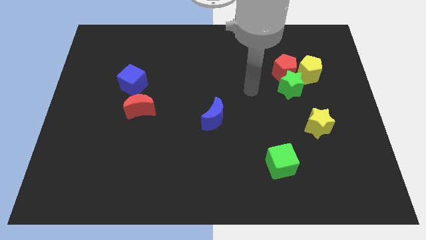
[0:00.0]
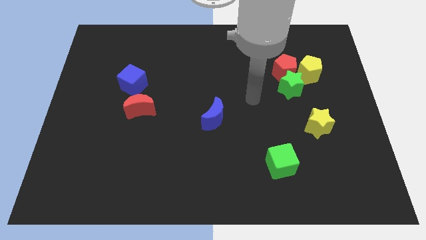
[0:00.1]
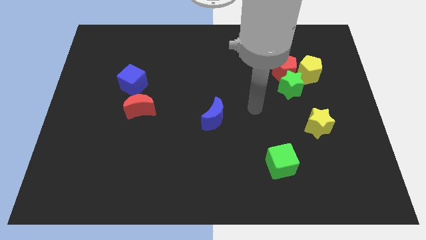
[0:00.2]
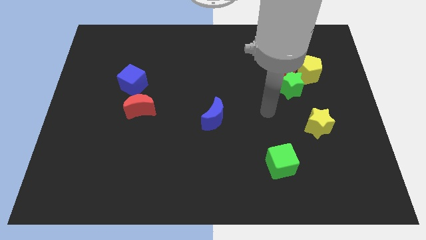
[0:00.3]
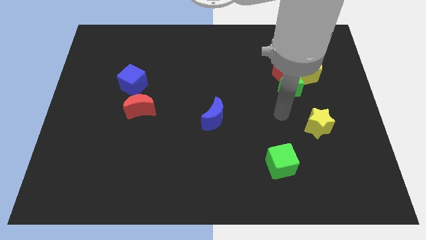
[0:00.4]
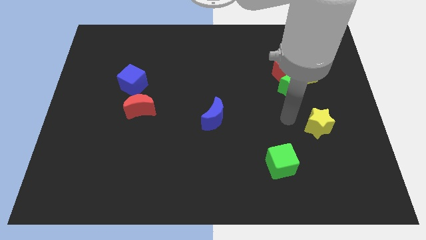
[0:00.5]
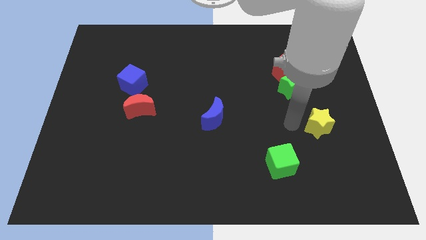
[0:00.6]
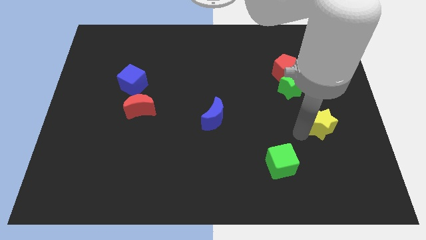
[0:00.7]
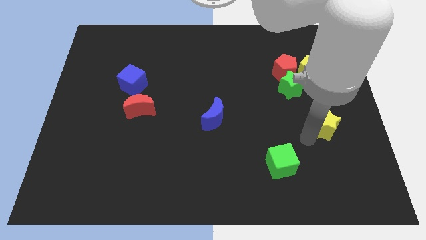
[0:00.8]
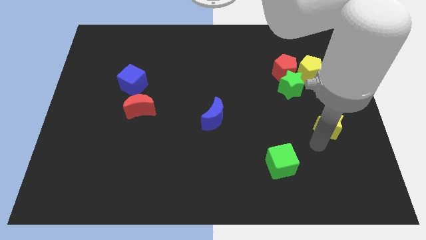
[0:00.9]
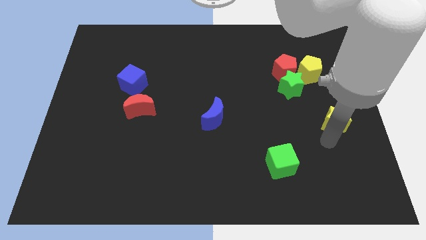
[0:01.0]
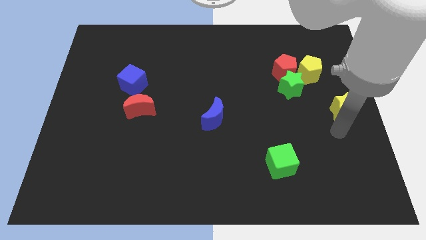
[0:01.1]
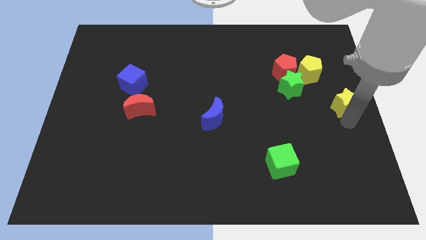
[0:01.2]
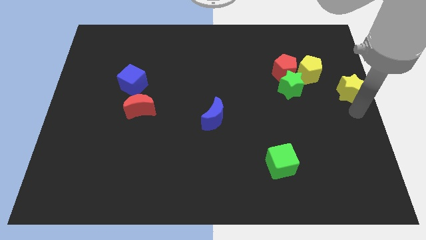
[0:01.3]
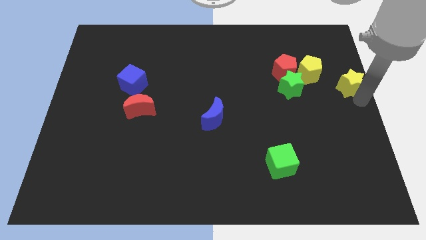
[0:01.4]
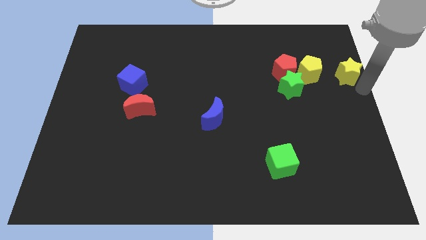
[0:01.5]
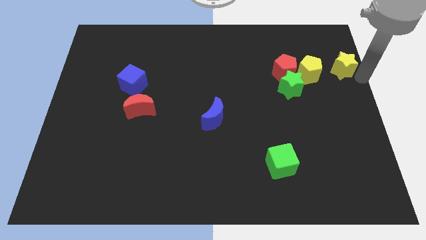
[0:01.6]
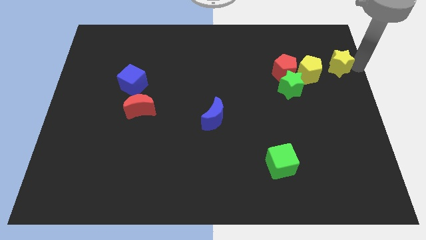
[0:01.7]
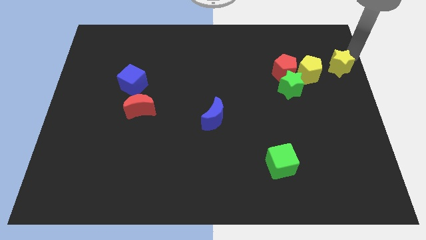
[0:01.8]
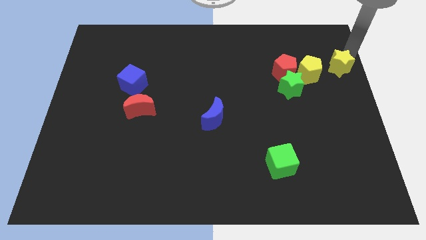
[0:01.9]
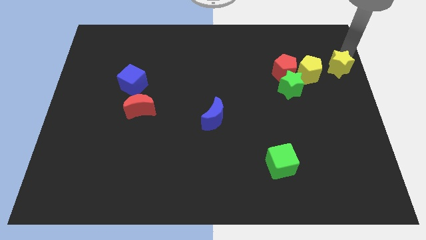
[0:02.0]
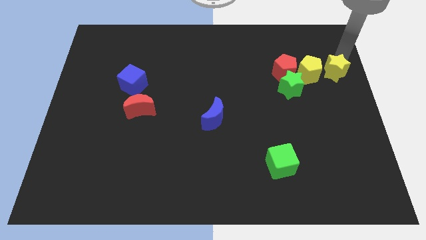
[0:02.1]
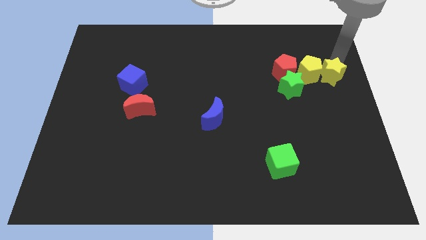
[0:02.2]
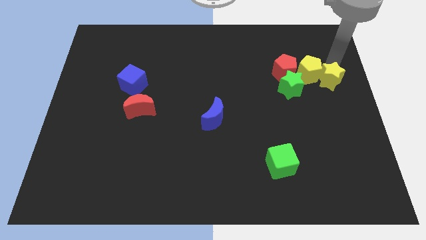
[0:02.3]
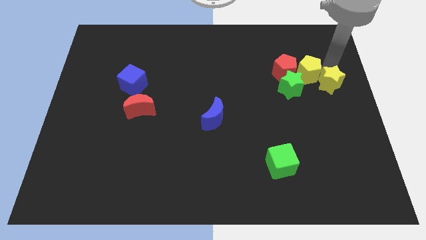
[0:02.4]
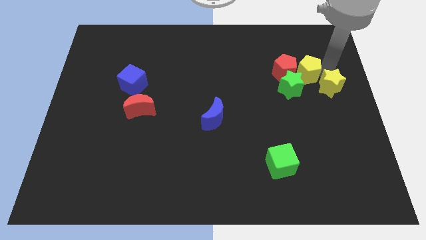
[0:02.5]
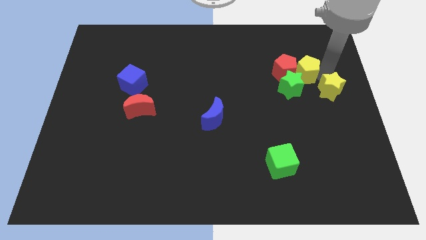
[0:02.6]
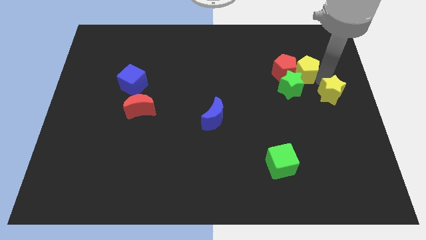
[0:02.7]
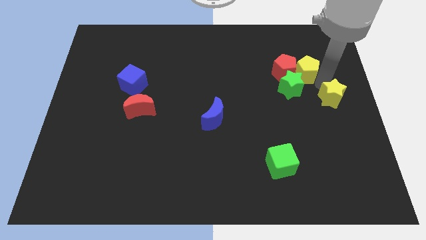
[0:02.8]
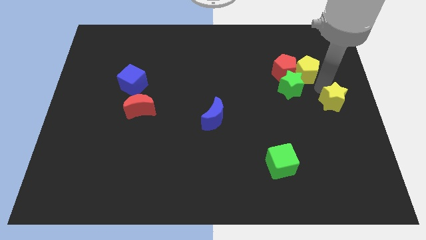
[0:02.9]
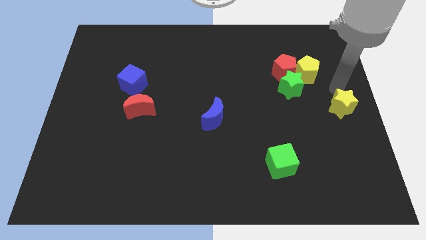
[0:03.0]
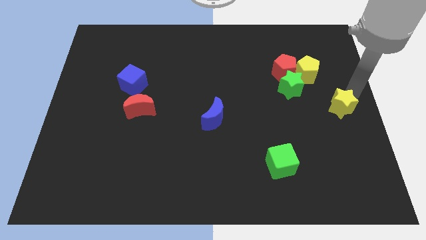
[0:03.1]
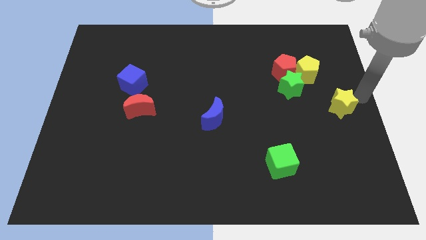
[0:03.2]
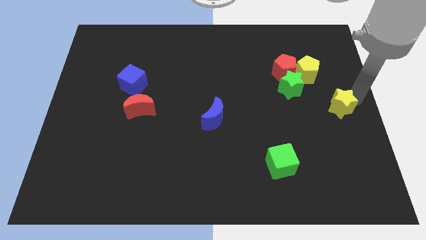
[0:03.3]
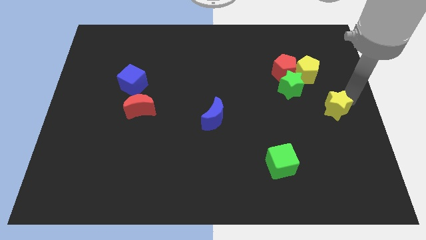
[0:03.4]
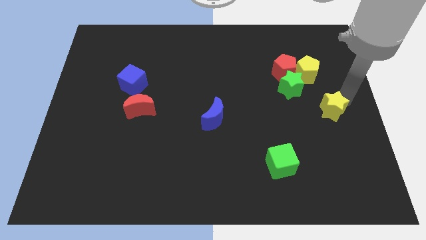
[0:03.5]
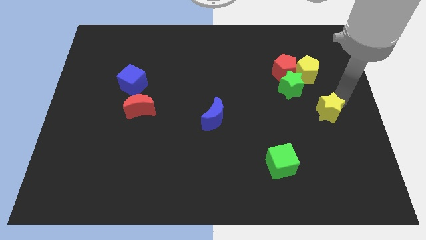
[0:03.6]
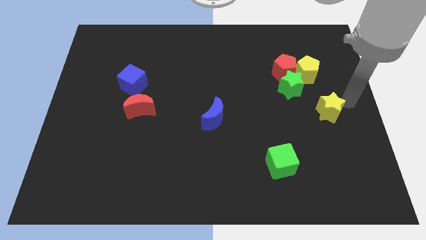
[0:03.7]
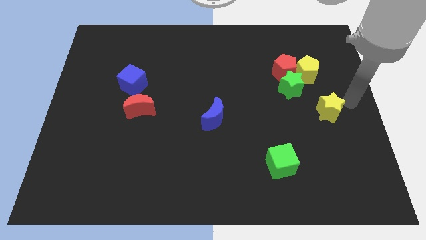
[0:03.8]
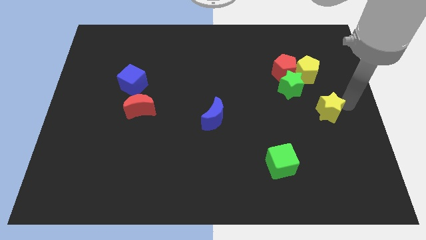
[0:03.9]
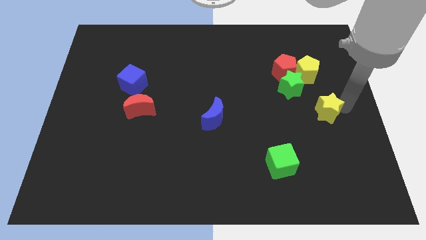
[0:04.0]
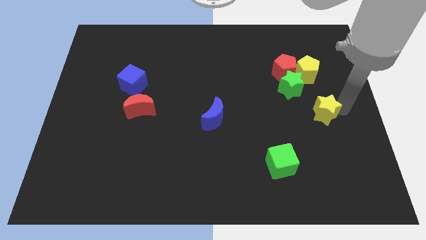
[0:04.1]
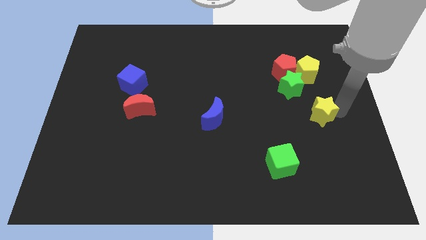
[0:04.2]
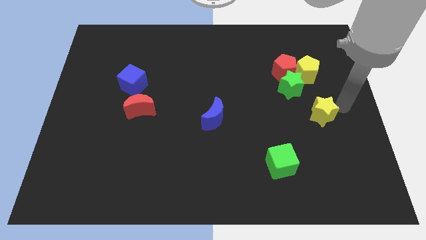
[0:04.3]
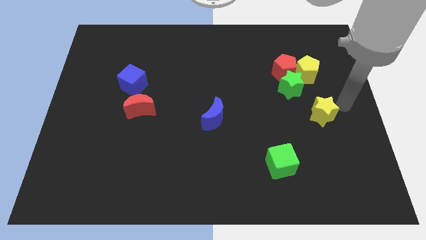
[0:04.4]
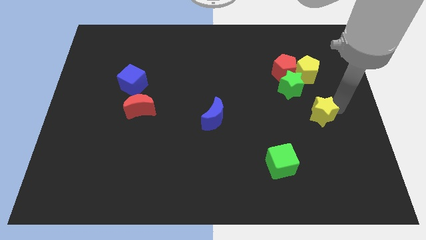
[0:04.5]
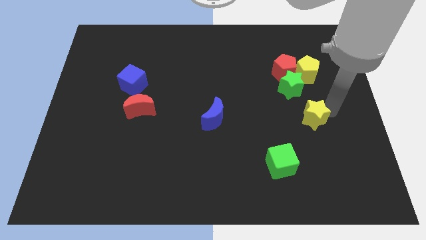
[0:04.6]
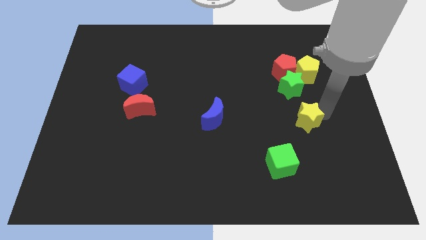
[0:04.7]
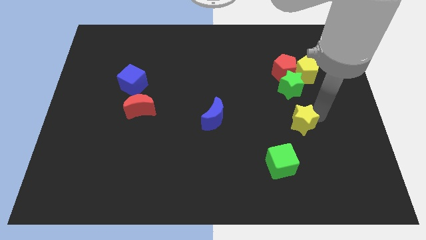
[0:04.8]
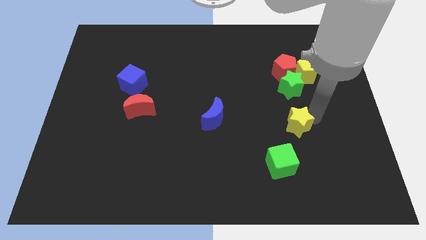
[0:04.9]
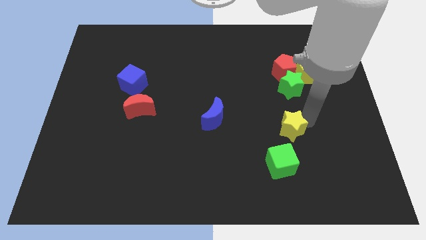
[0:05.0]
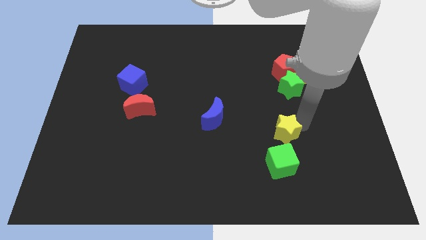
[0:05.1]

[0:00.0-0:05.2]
slightly push the yellow star to the left

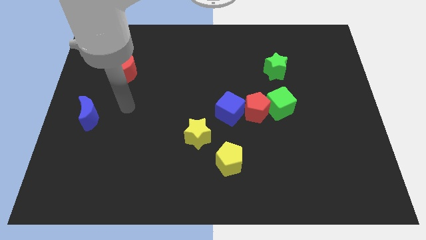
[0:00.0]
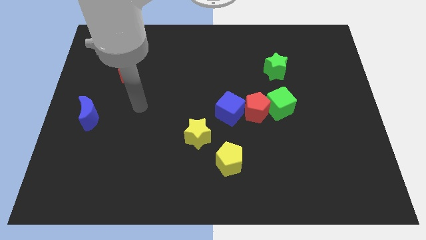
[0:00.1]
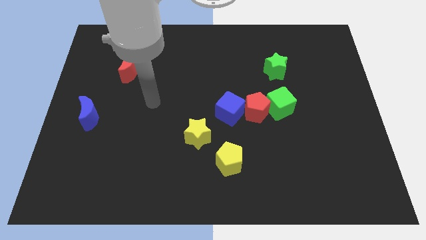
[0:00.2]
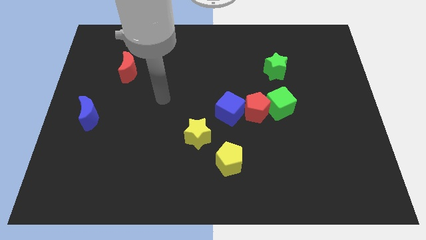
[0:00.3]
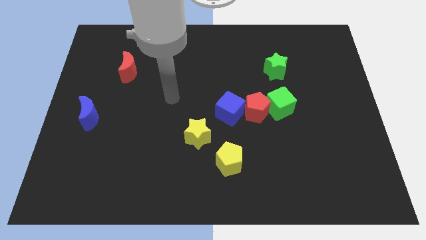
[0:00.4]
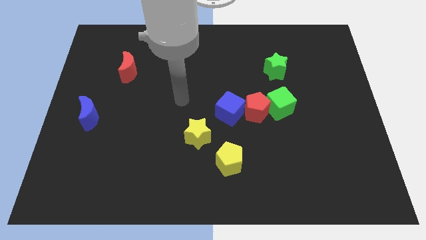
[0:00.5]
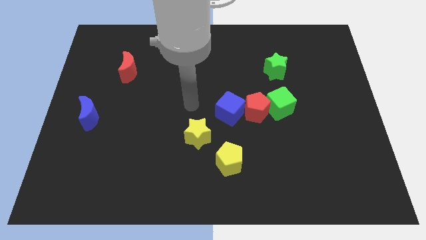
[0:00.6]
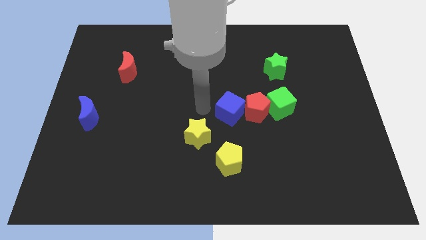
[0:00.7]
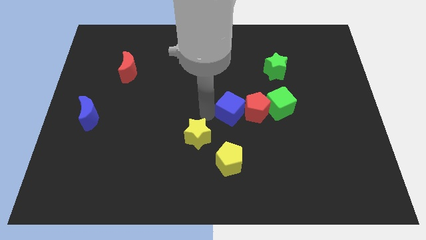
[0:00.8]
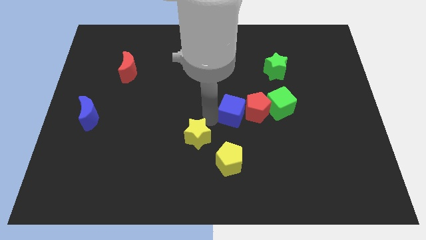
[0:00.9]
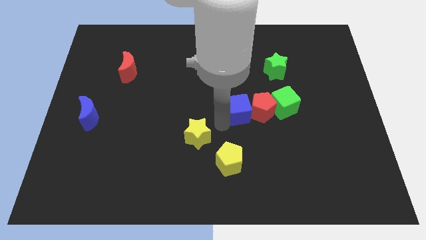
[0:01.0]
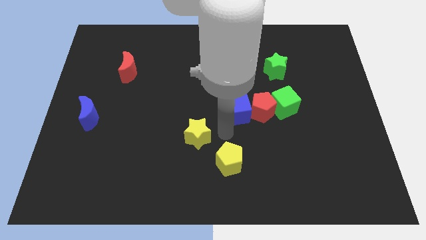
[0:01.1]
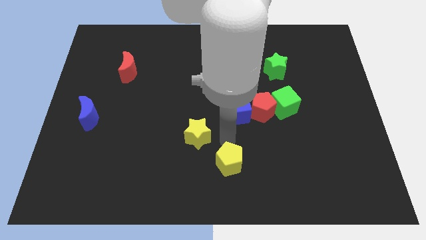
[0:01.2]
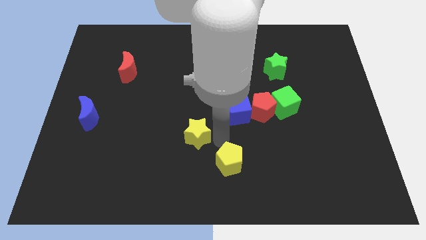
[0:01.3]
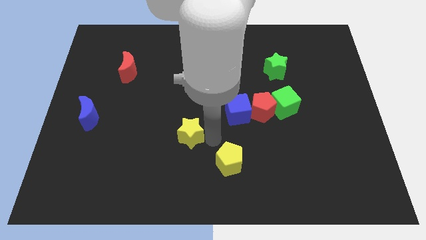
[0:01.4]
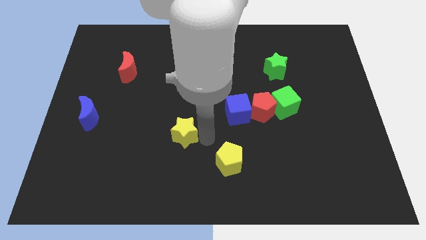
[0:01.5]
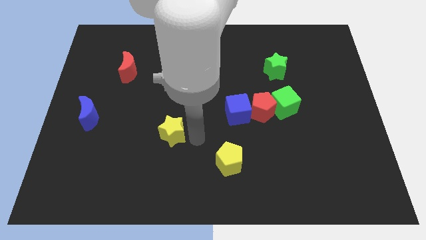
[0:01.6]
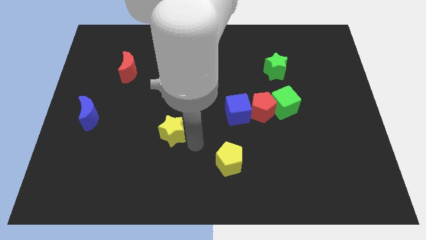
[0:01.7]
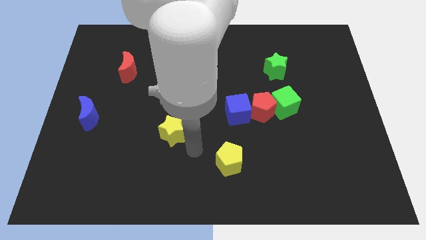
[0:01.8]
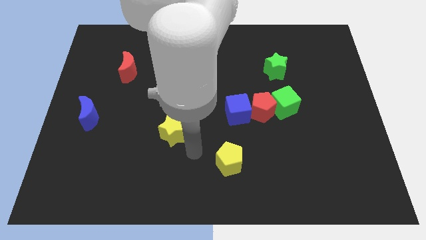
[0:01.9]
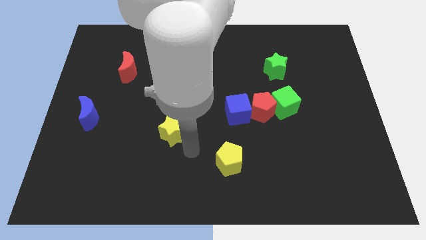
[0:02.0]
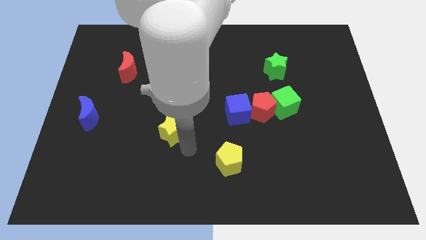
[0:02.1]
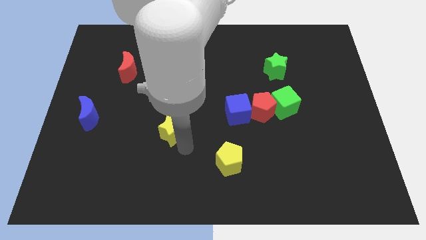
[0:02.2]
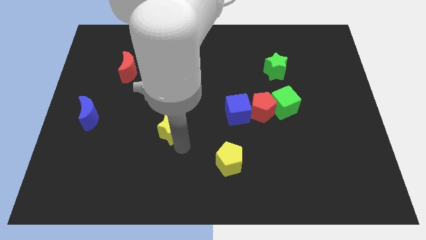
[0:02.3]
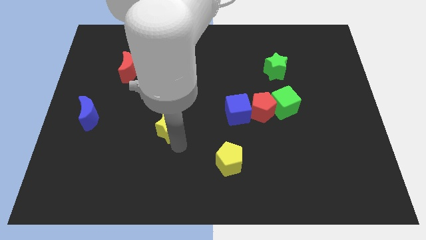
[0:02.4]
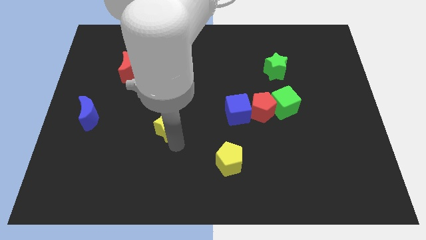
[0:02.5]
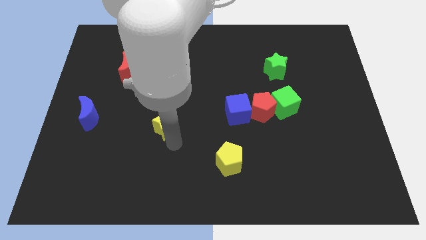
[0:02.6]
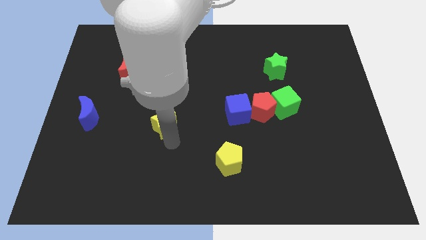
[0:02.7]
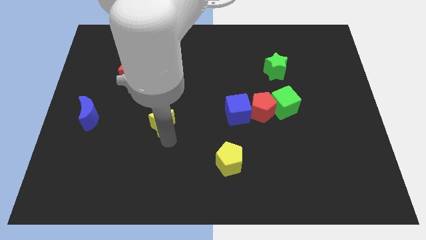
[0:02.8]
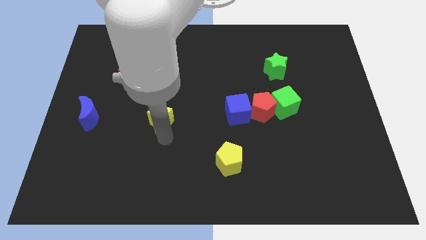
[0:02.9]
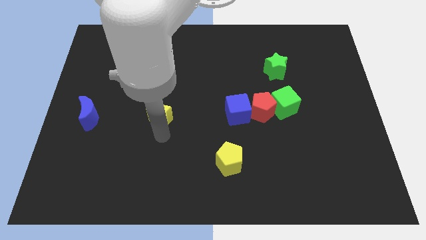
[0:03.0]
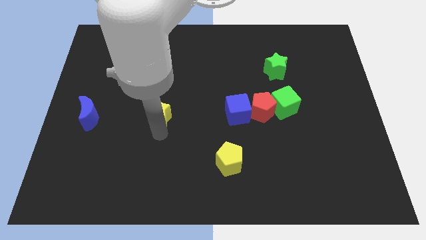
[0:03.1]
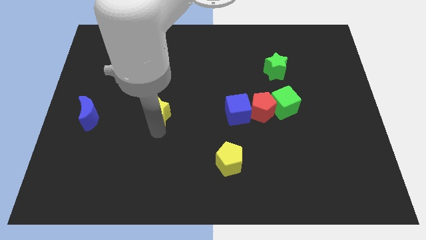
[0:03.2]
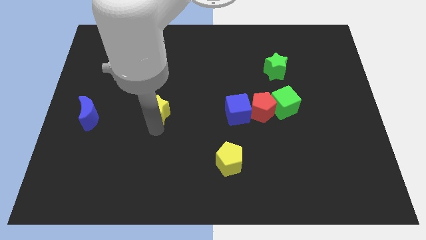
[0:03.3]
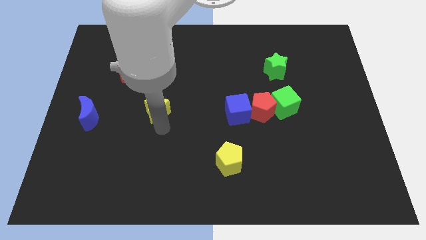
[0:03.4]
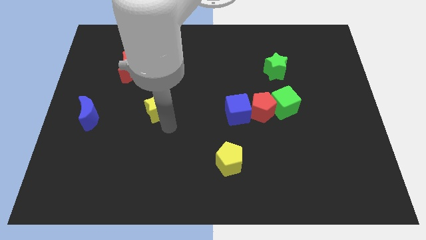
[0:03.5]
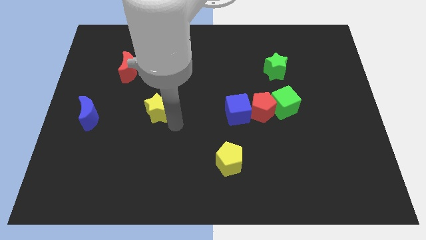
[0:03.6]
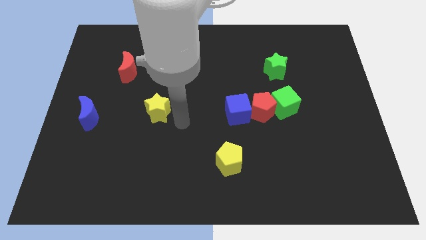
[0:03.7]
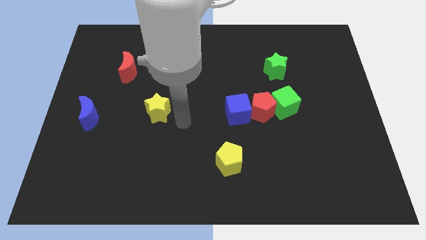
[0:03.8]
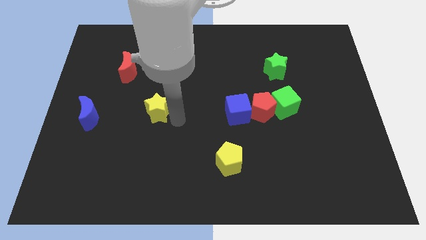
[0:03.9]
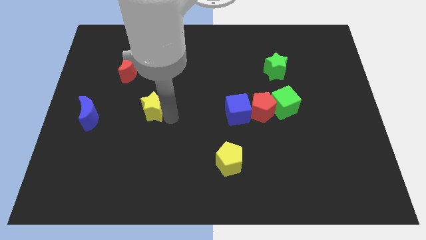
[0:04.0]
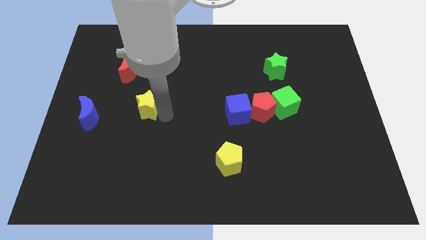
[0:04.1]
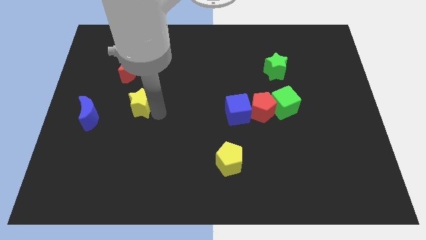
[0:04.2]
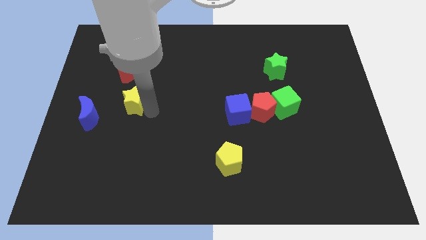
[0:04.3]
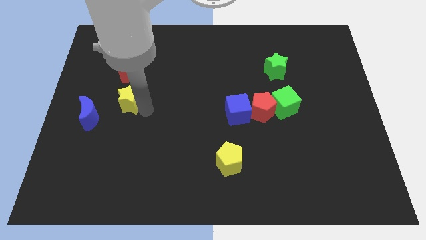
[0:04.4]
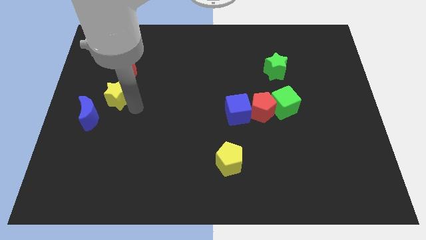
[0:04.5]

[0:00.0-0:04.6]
push the yellow star upwards and left diagonally
